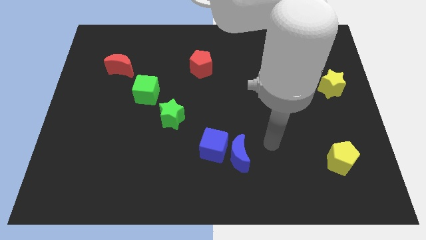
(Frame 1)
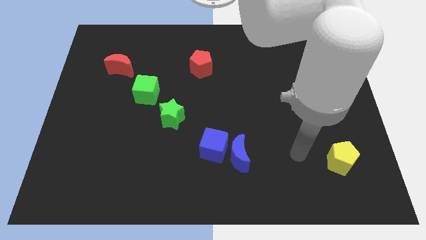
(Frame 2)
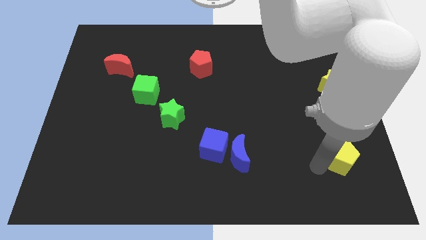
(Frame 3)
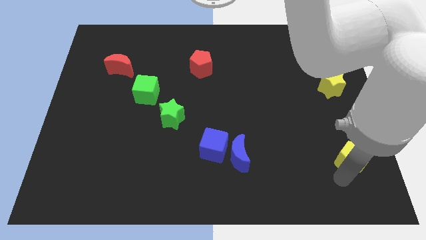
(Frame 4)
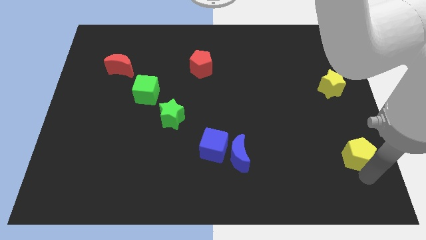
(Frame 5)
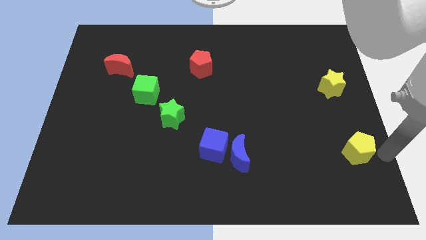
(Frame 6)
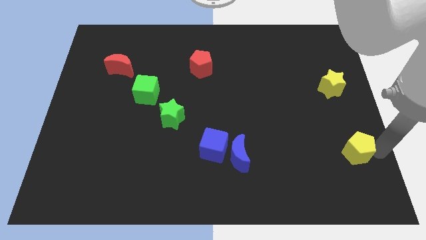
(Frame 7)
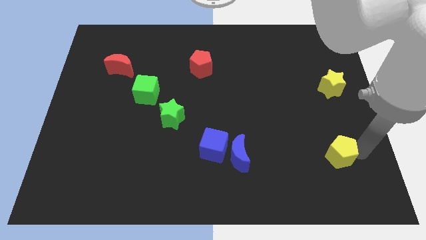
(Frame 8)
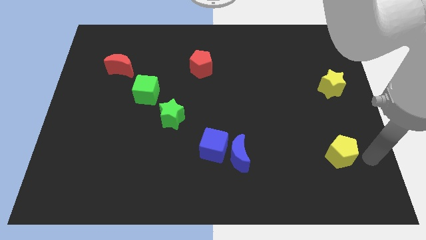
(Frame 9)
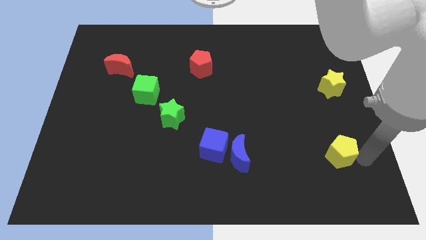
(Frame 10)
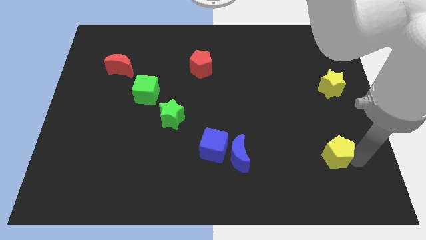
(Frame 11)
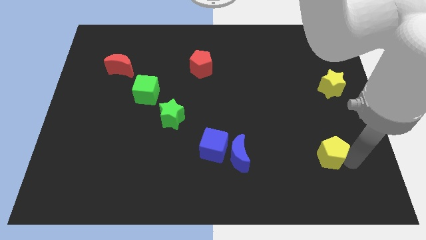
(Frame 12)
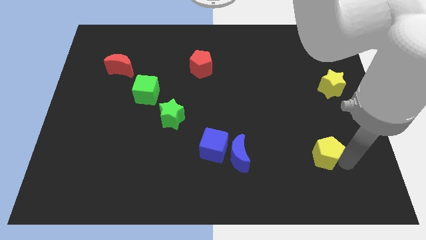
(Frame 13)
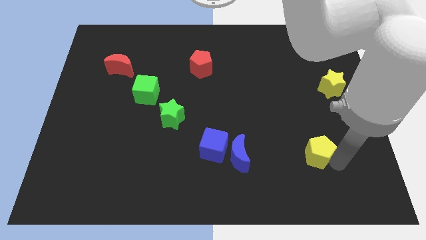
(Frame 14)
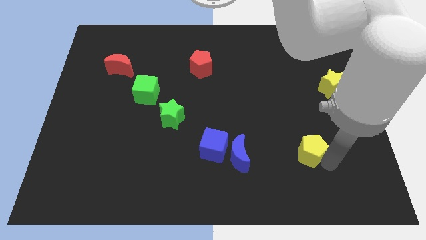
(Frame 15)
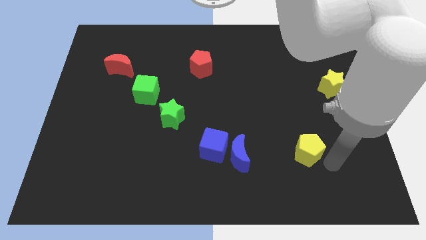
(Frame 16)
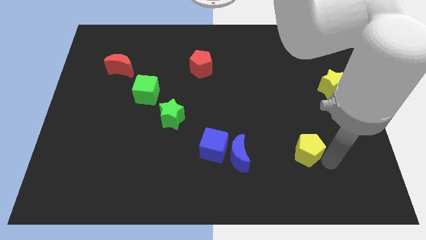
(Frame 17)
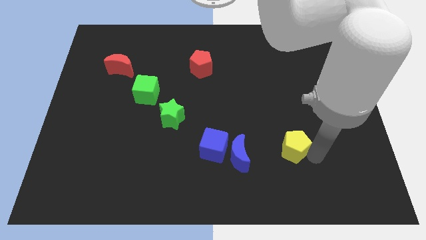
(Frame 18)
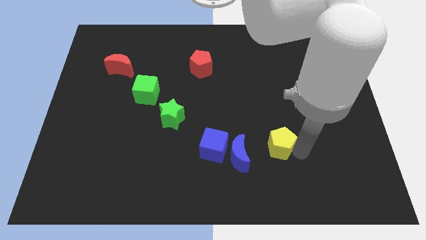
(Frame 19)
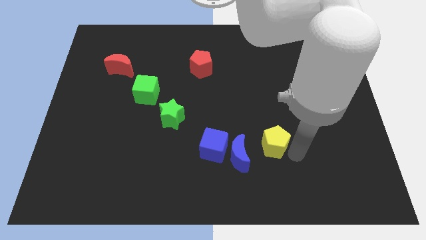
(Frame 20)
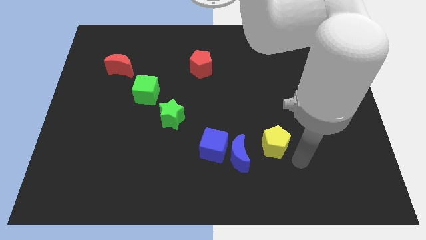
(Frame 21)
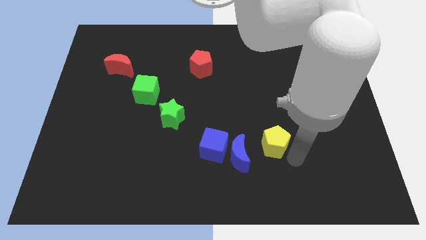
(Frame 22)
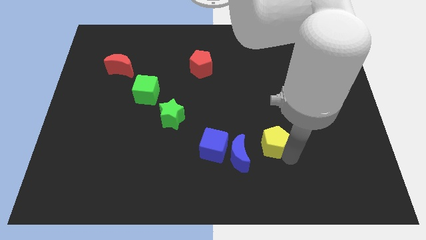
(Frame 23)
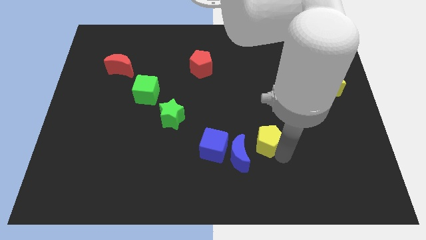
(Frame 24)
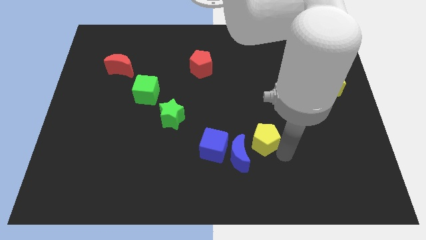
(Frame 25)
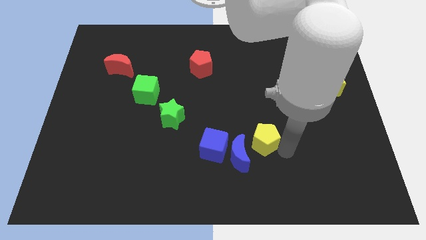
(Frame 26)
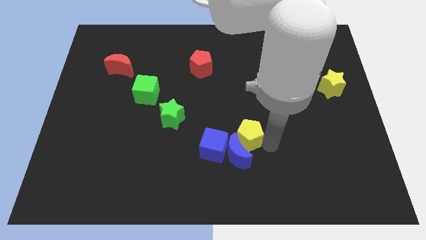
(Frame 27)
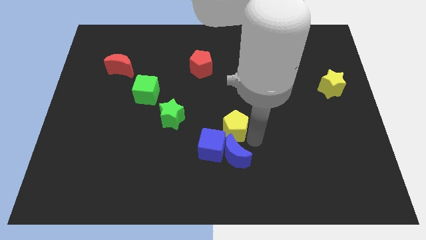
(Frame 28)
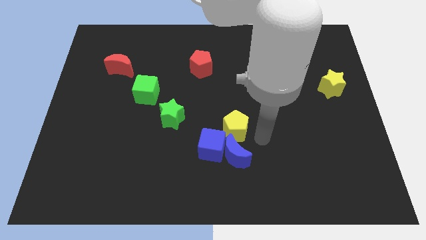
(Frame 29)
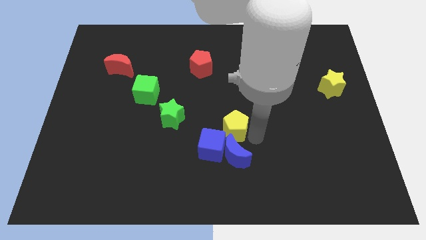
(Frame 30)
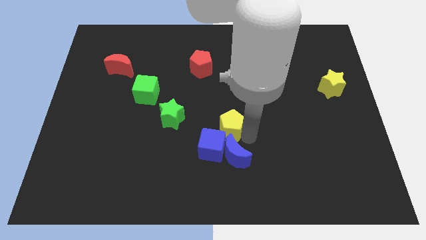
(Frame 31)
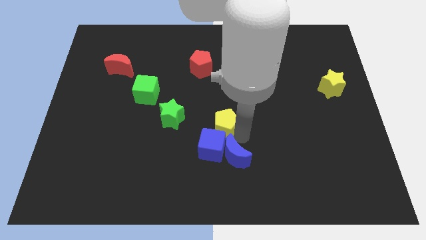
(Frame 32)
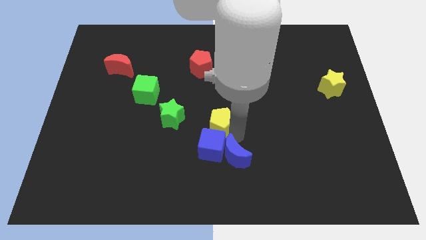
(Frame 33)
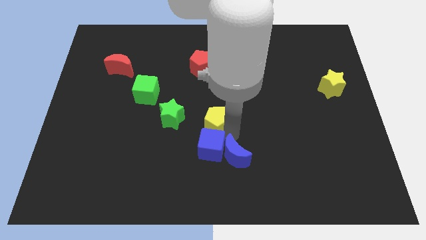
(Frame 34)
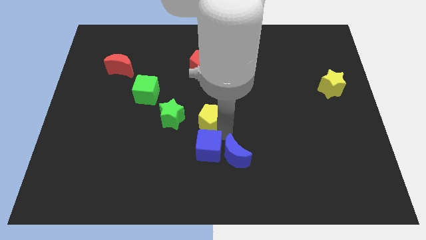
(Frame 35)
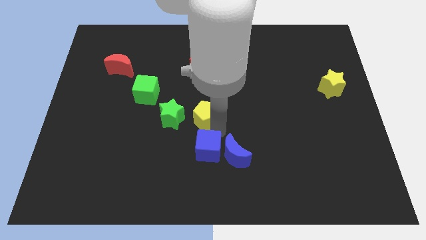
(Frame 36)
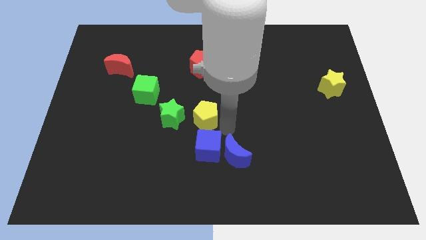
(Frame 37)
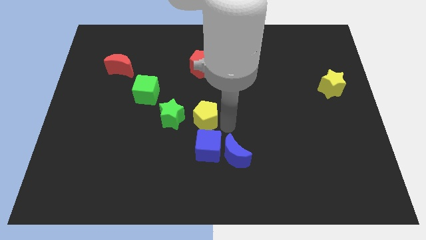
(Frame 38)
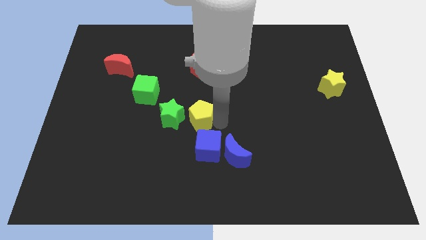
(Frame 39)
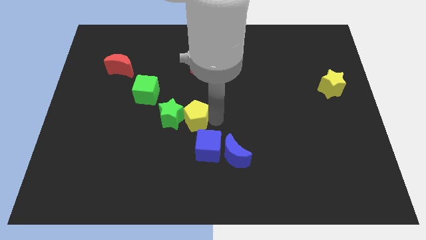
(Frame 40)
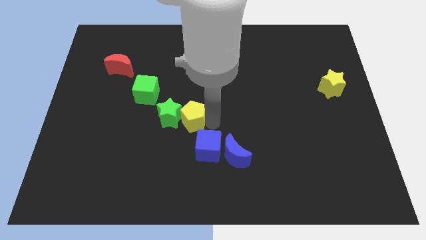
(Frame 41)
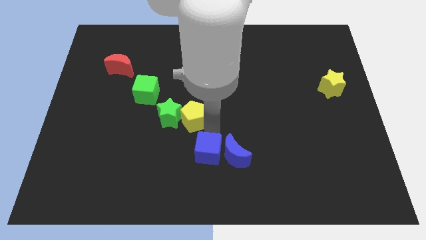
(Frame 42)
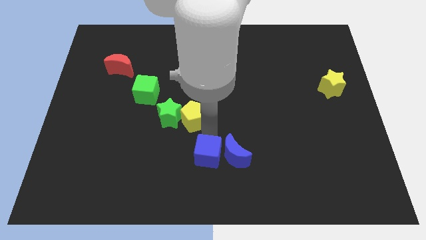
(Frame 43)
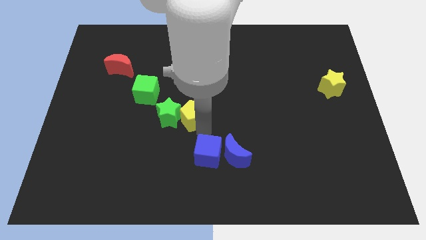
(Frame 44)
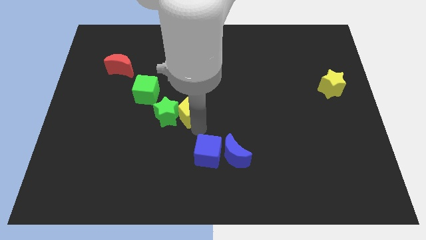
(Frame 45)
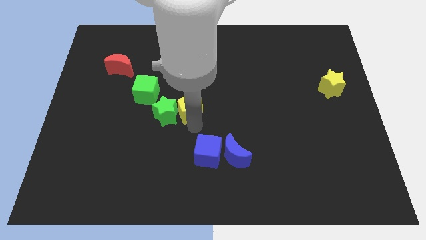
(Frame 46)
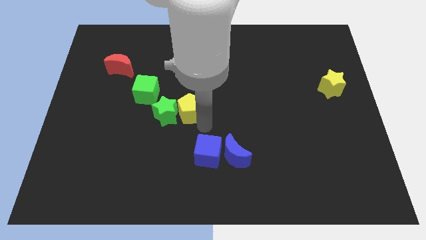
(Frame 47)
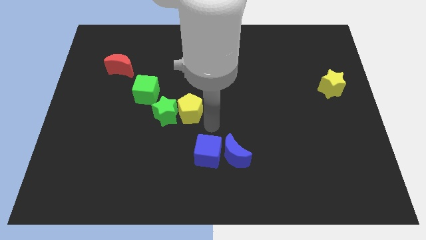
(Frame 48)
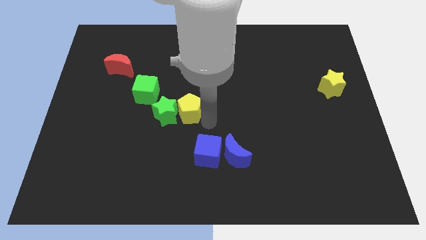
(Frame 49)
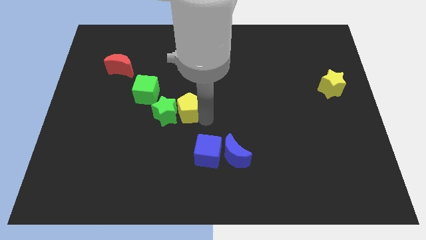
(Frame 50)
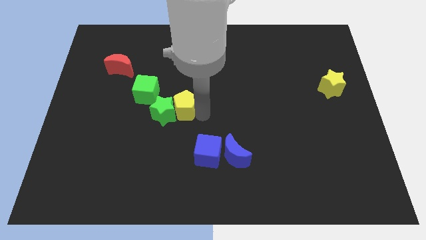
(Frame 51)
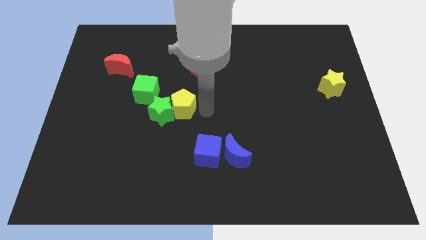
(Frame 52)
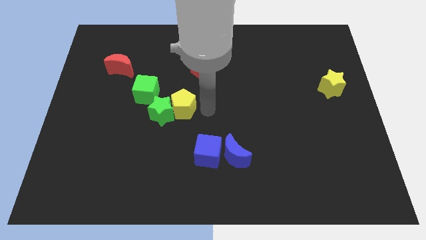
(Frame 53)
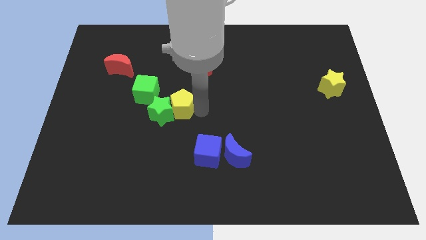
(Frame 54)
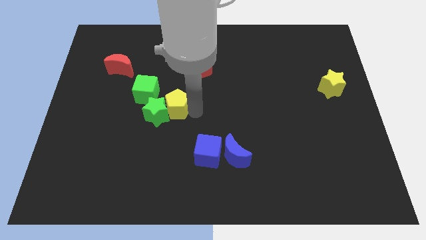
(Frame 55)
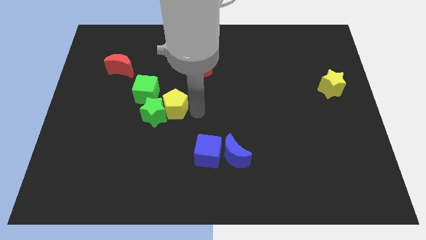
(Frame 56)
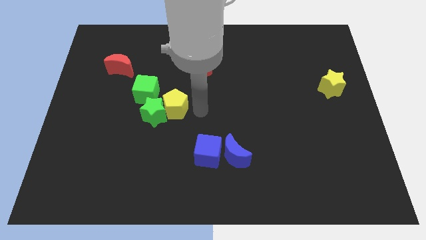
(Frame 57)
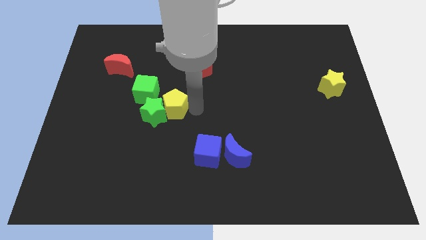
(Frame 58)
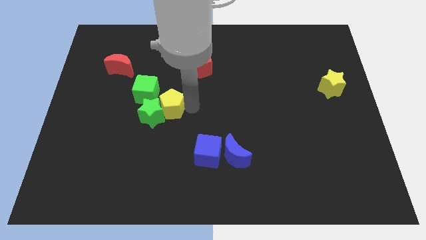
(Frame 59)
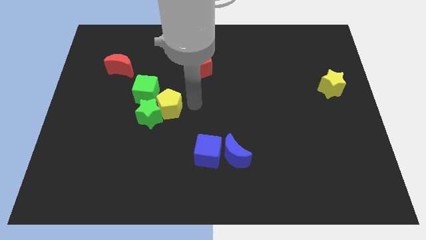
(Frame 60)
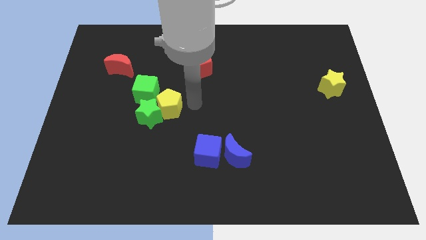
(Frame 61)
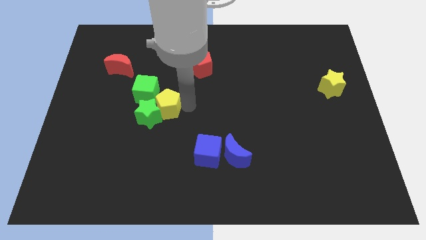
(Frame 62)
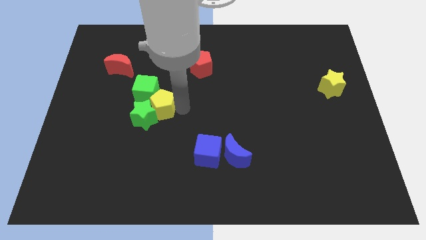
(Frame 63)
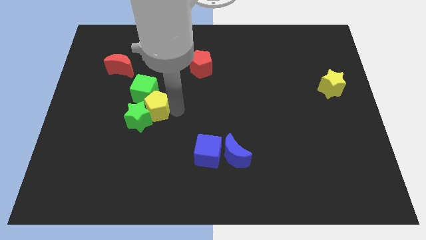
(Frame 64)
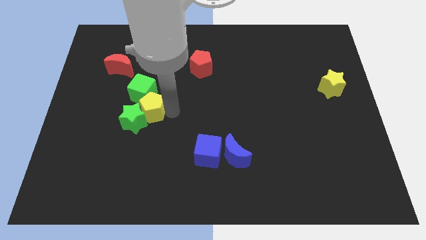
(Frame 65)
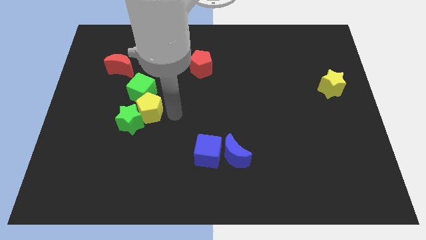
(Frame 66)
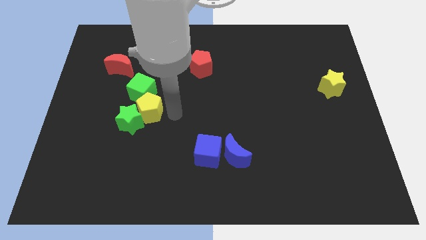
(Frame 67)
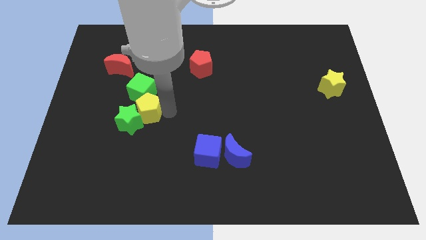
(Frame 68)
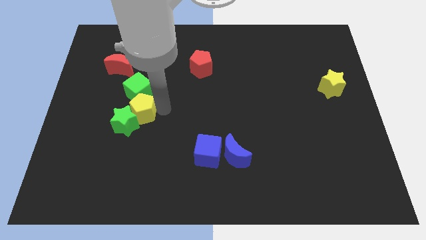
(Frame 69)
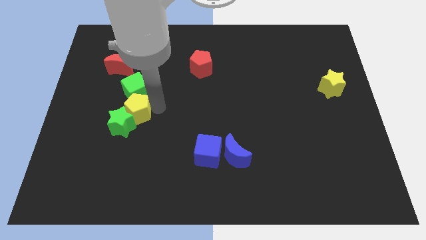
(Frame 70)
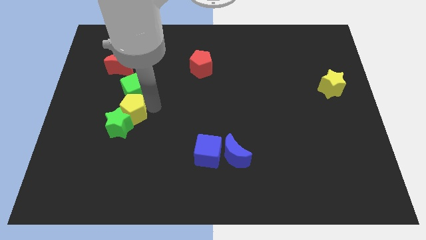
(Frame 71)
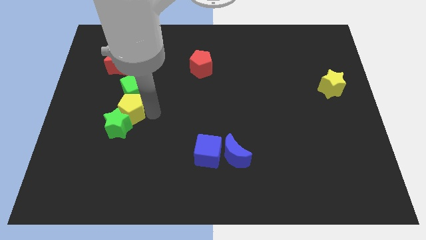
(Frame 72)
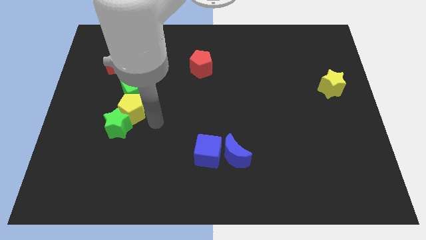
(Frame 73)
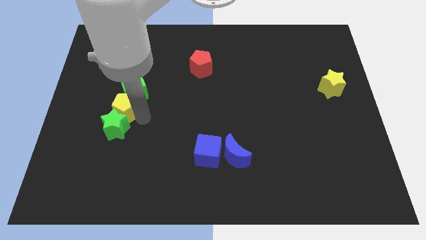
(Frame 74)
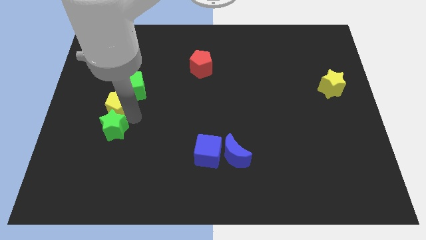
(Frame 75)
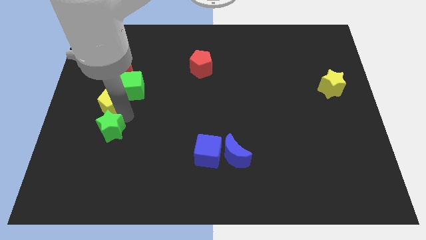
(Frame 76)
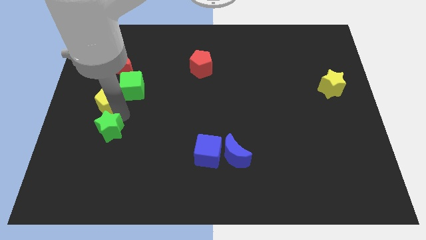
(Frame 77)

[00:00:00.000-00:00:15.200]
put the yellow pentagon to the left of the green cube
